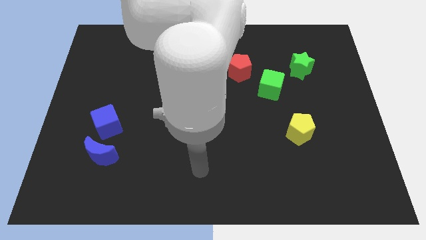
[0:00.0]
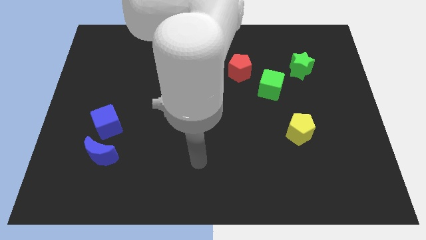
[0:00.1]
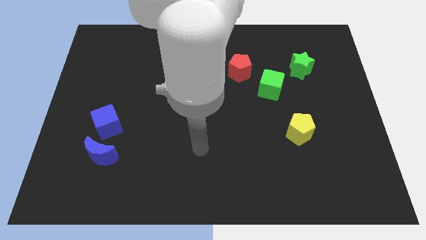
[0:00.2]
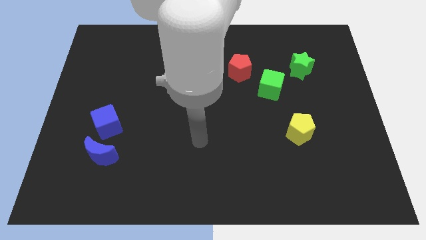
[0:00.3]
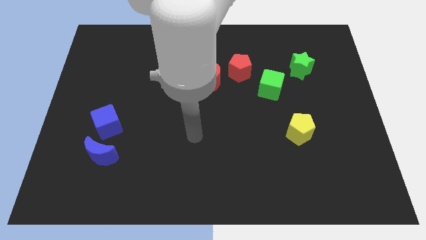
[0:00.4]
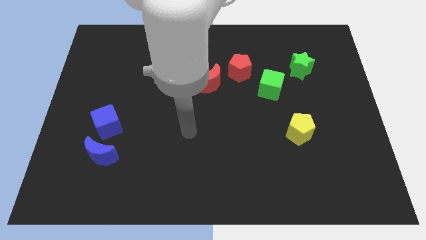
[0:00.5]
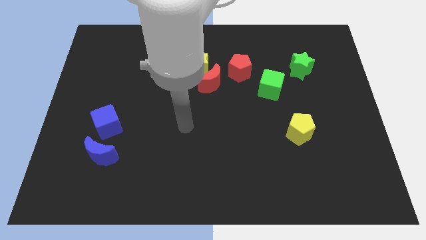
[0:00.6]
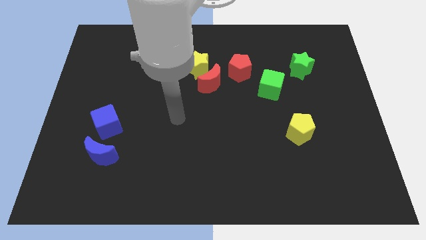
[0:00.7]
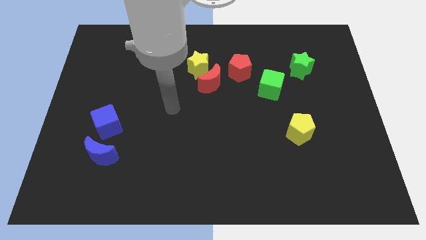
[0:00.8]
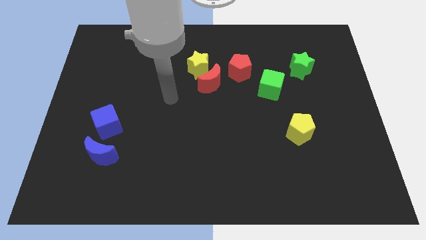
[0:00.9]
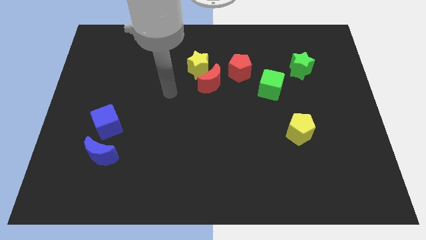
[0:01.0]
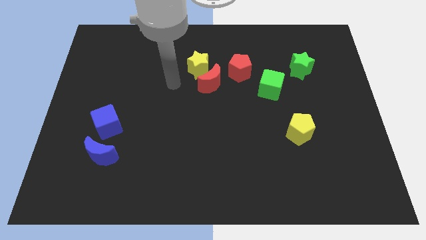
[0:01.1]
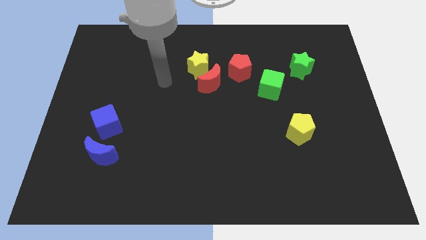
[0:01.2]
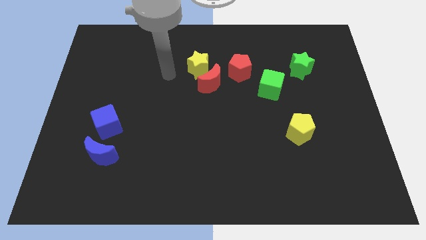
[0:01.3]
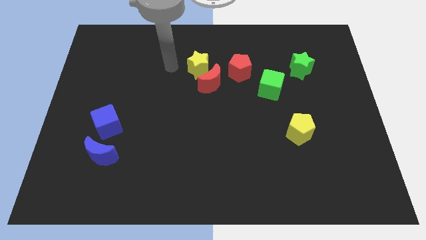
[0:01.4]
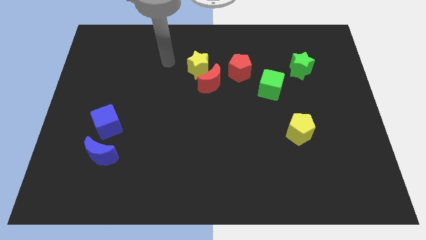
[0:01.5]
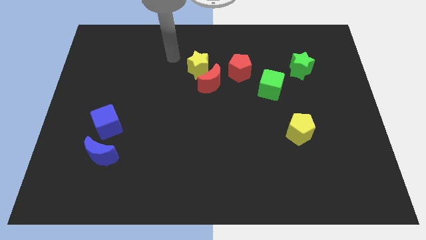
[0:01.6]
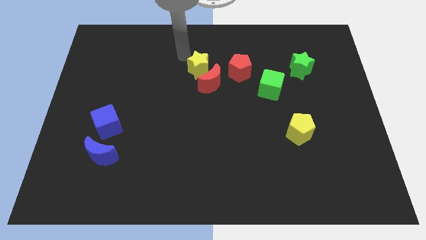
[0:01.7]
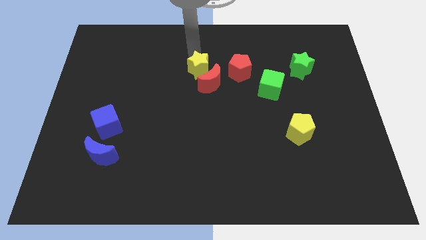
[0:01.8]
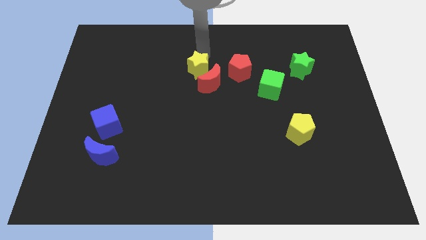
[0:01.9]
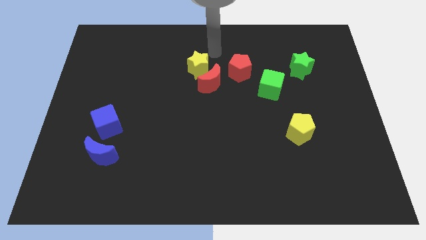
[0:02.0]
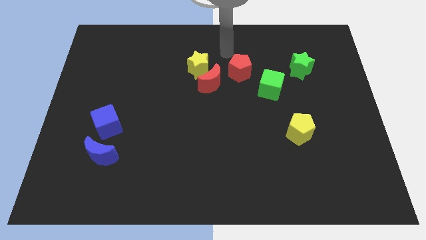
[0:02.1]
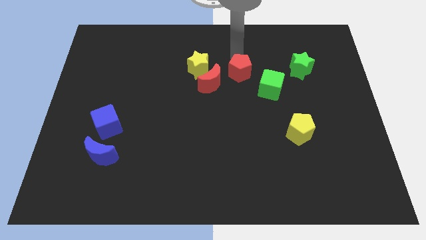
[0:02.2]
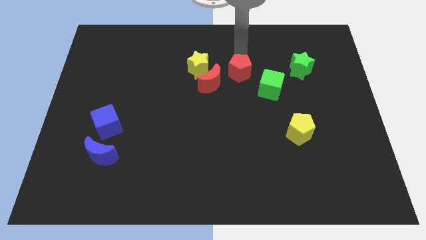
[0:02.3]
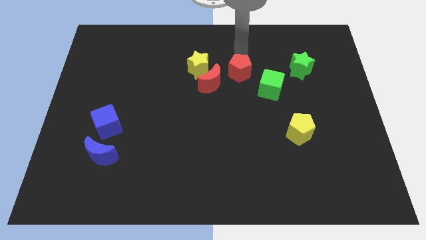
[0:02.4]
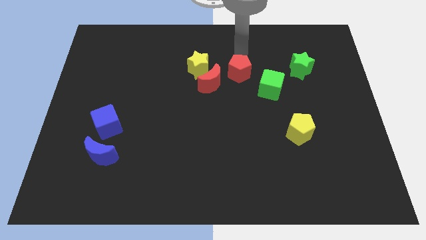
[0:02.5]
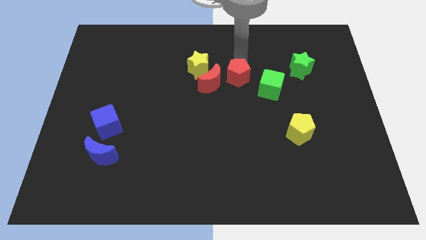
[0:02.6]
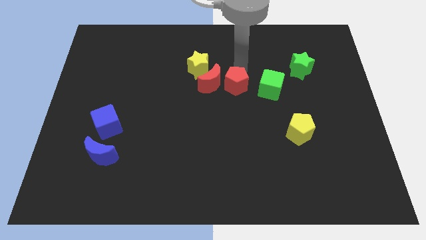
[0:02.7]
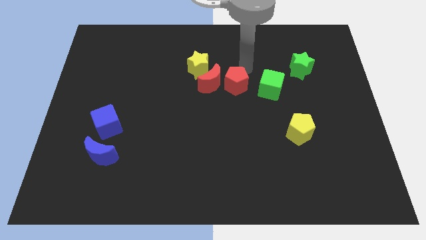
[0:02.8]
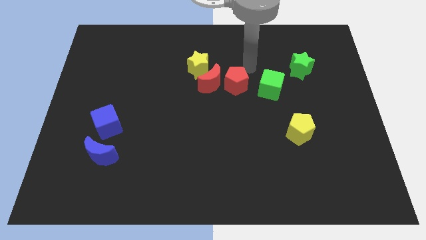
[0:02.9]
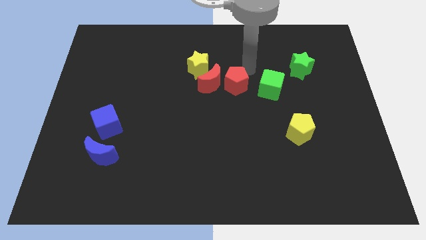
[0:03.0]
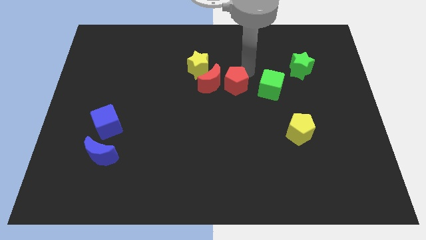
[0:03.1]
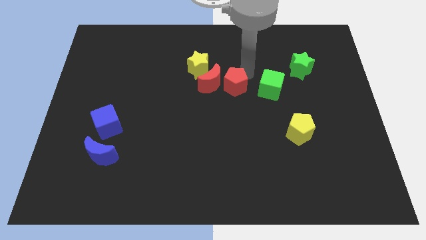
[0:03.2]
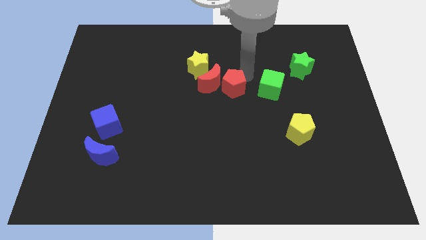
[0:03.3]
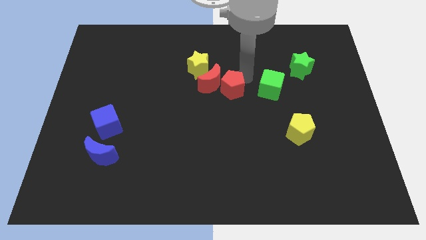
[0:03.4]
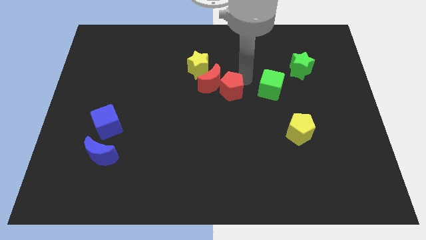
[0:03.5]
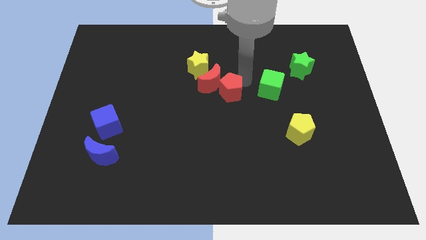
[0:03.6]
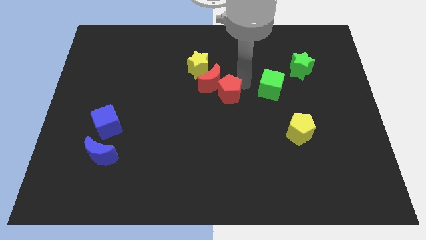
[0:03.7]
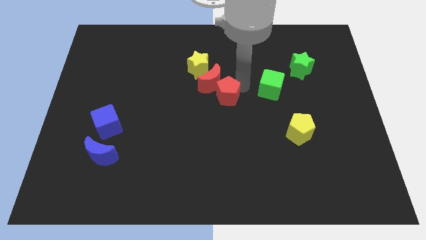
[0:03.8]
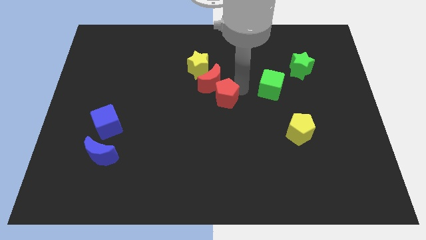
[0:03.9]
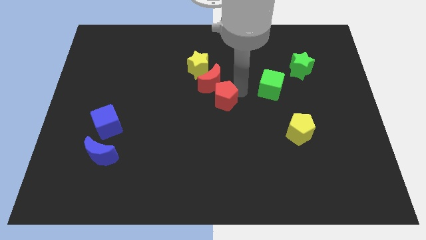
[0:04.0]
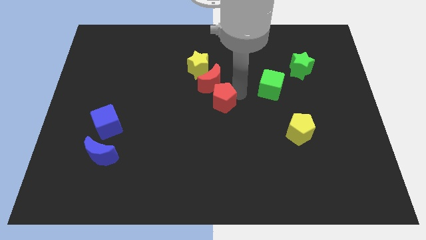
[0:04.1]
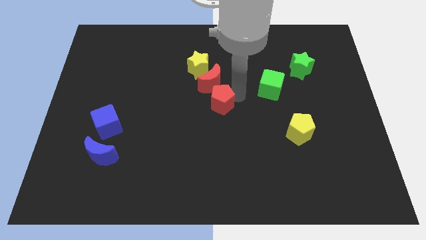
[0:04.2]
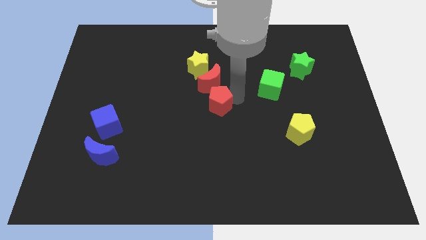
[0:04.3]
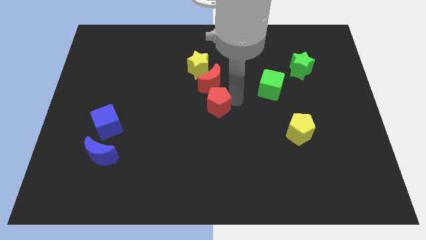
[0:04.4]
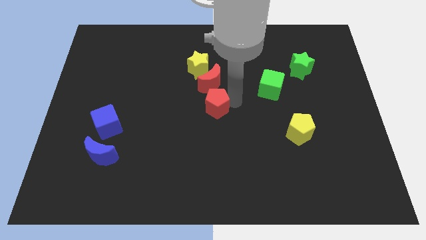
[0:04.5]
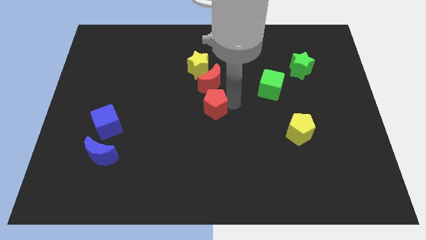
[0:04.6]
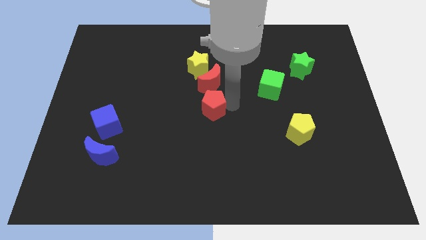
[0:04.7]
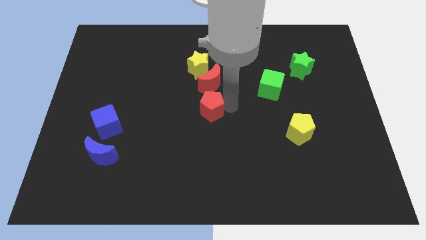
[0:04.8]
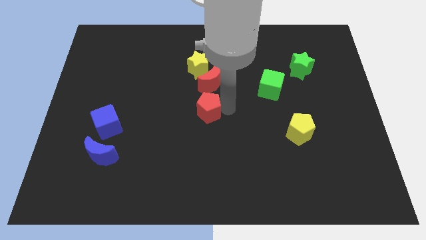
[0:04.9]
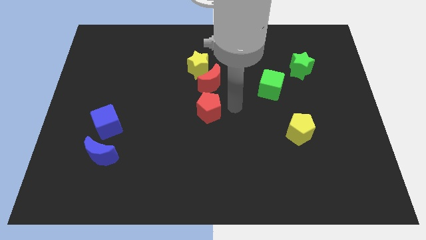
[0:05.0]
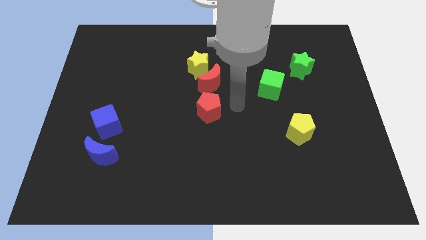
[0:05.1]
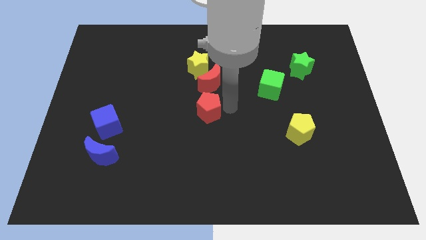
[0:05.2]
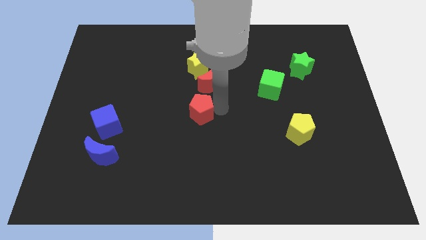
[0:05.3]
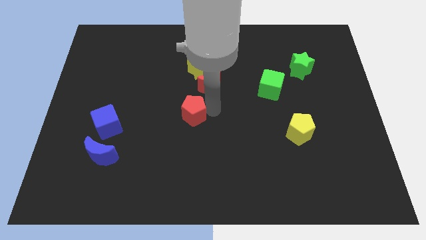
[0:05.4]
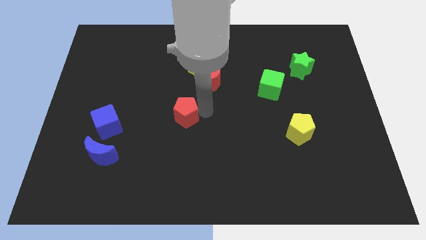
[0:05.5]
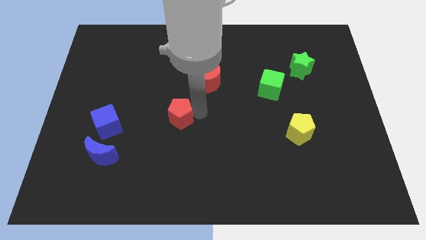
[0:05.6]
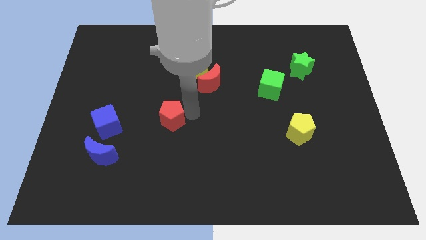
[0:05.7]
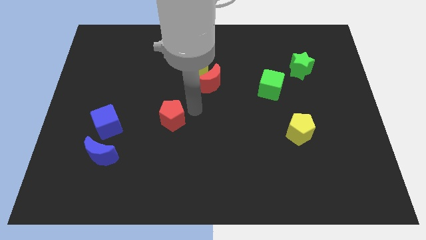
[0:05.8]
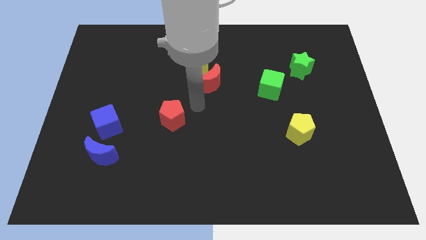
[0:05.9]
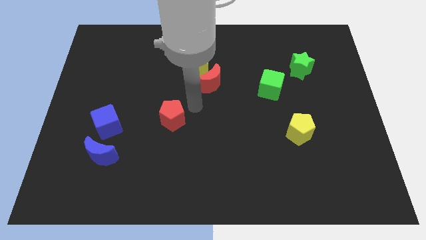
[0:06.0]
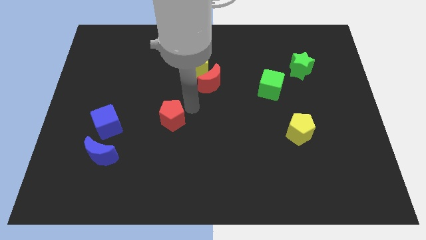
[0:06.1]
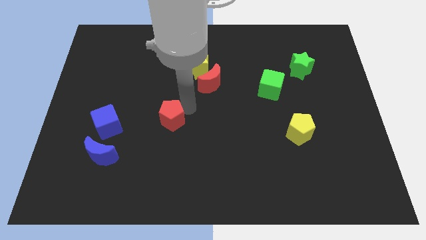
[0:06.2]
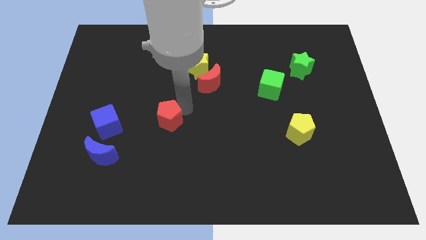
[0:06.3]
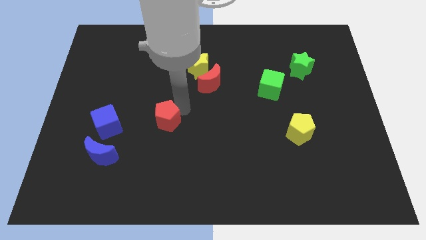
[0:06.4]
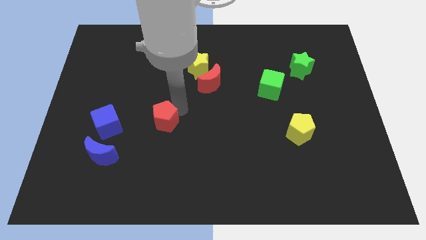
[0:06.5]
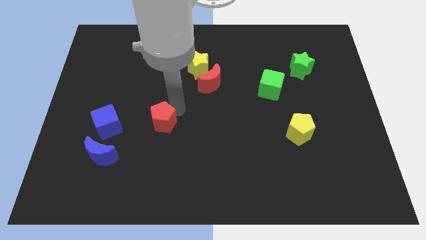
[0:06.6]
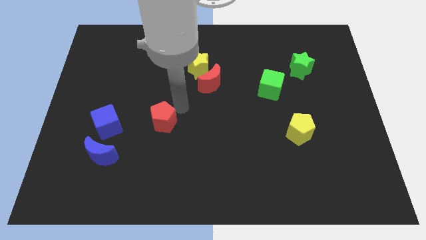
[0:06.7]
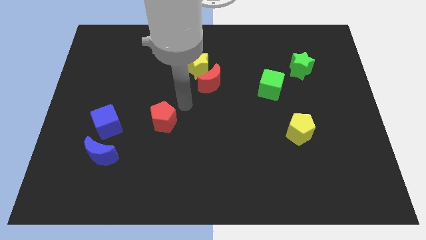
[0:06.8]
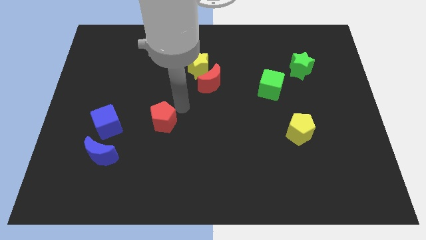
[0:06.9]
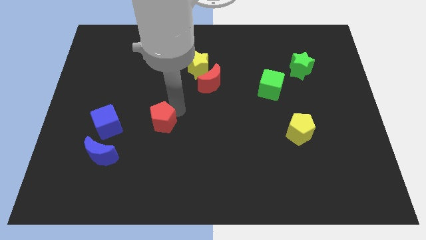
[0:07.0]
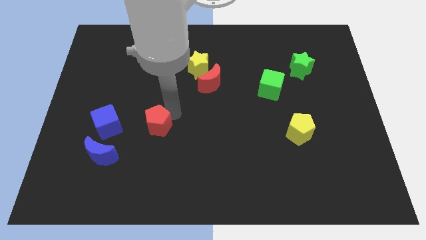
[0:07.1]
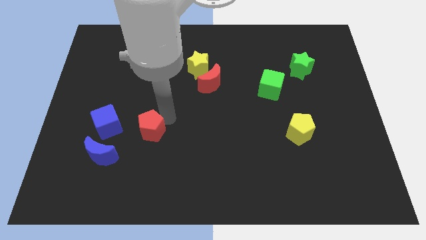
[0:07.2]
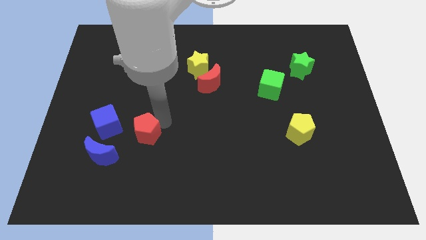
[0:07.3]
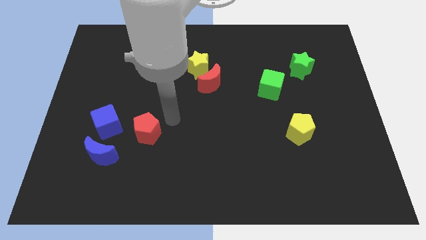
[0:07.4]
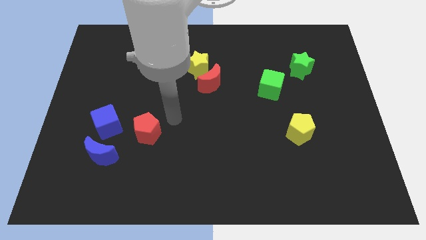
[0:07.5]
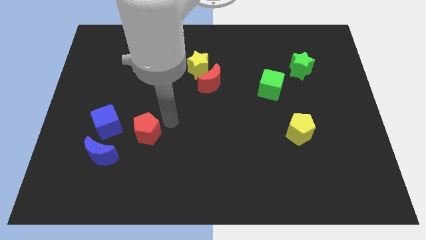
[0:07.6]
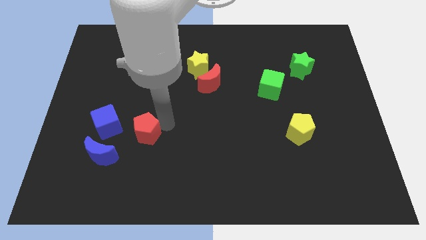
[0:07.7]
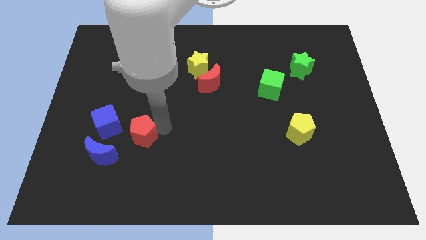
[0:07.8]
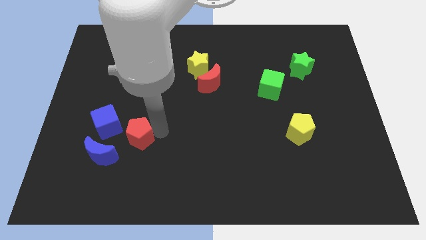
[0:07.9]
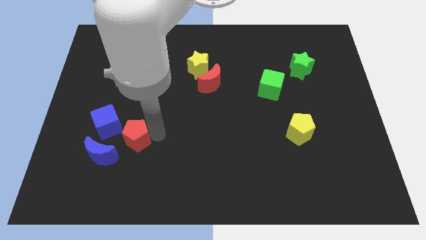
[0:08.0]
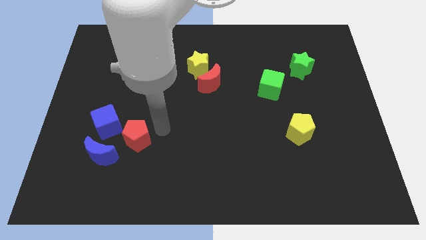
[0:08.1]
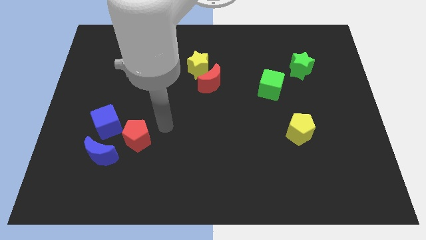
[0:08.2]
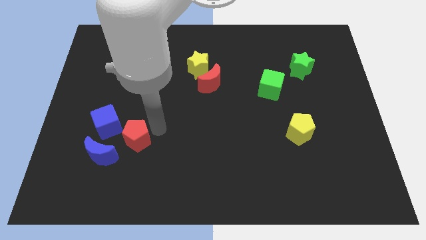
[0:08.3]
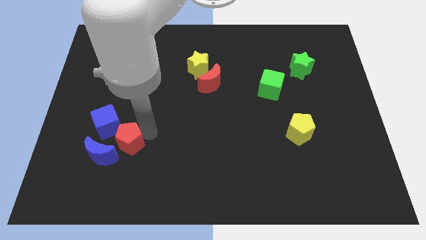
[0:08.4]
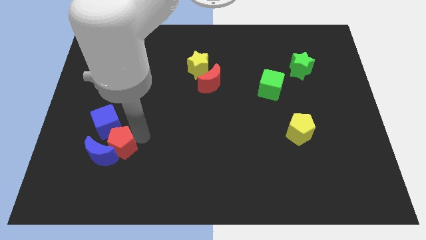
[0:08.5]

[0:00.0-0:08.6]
slide the red pentagon next to the blue moon
